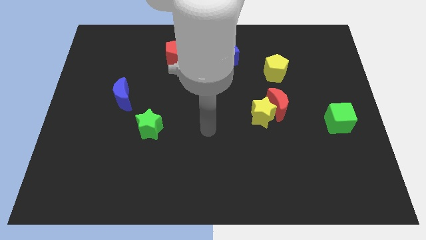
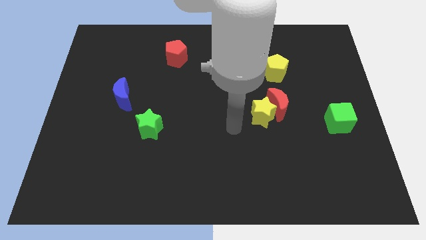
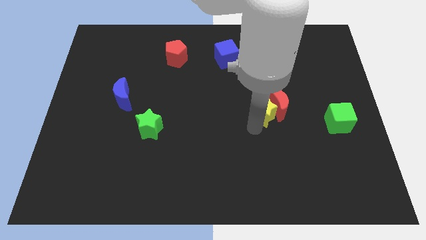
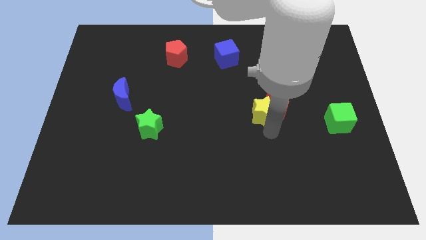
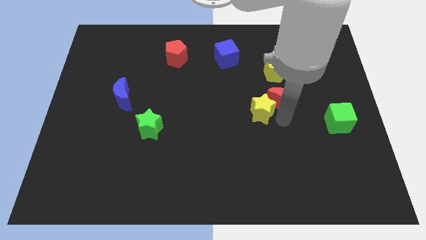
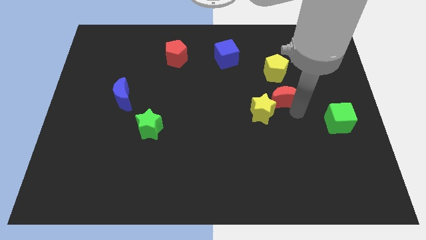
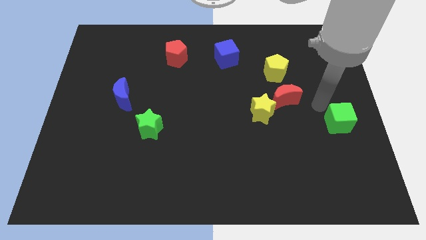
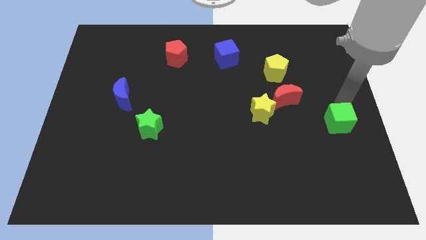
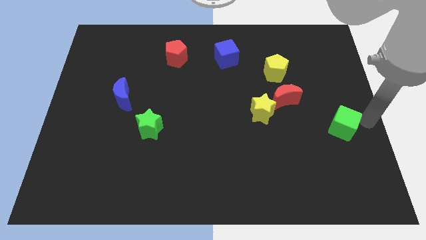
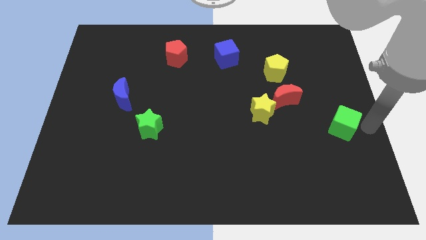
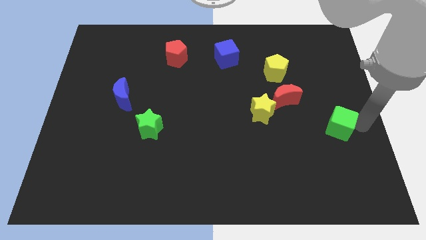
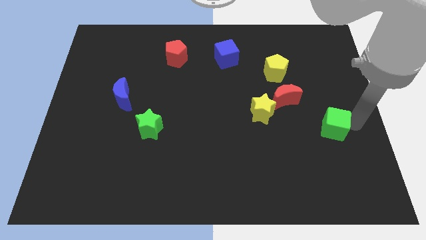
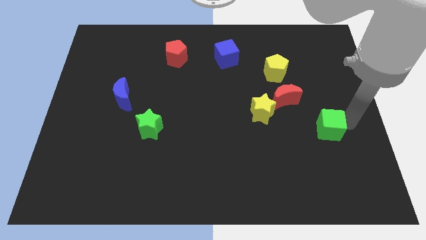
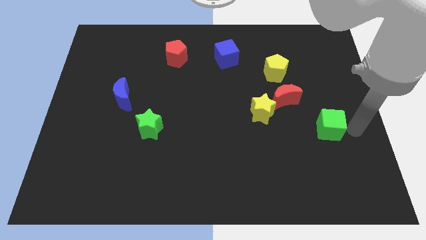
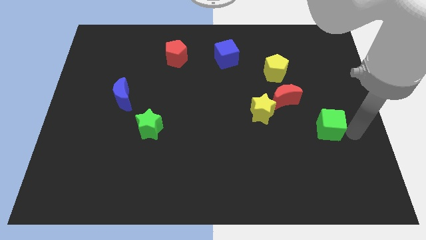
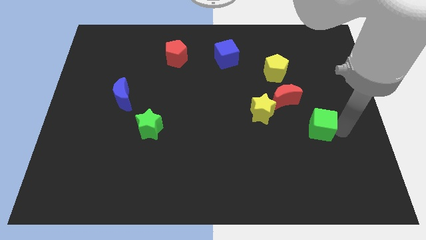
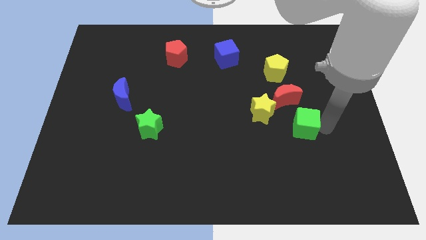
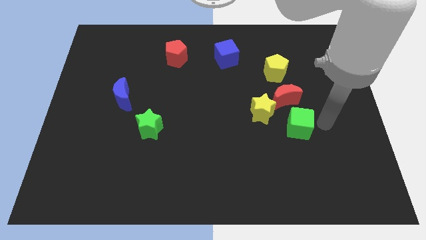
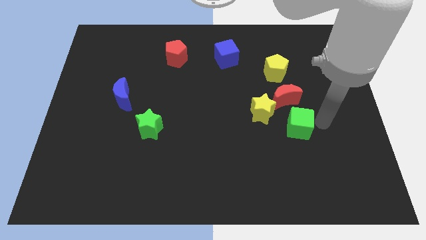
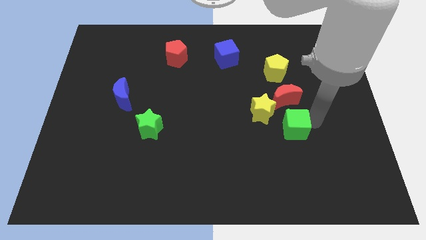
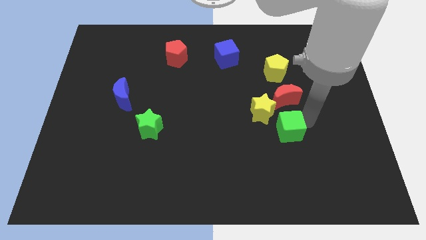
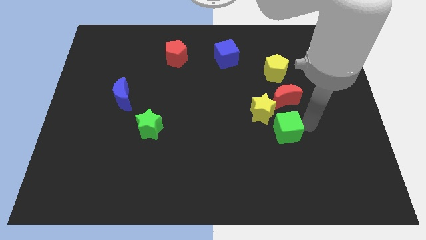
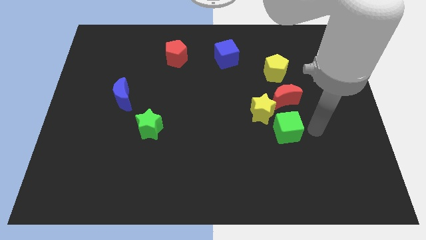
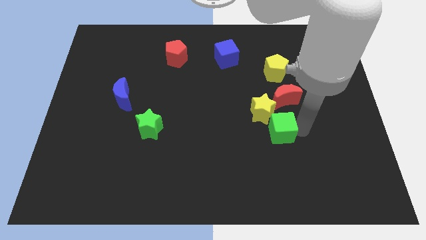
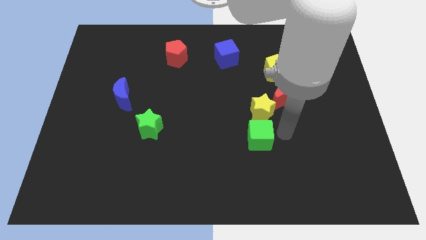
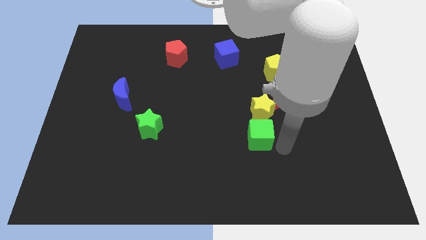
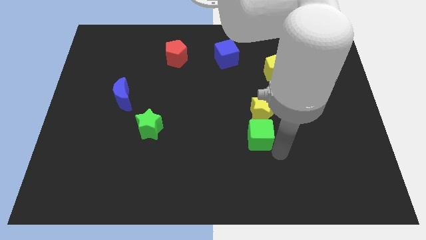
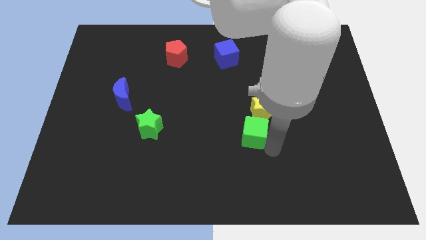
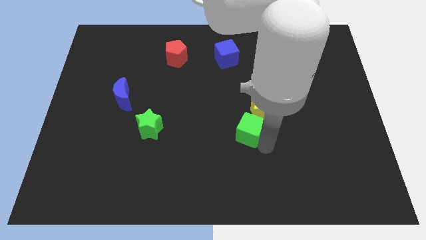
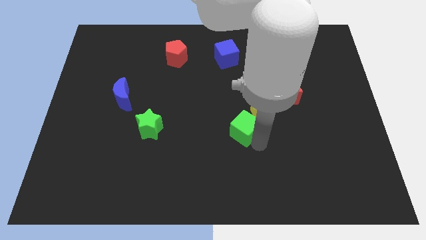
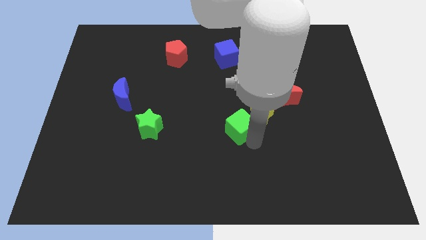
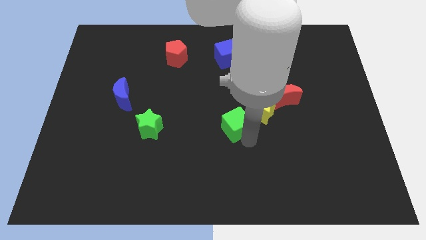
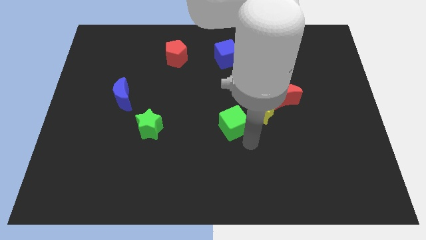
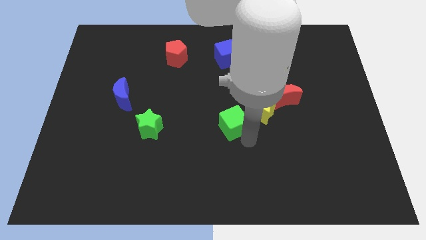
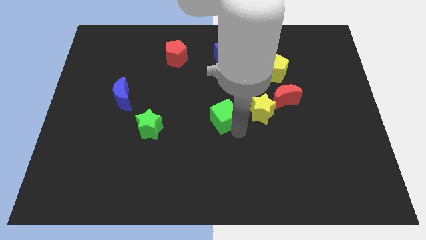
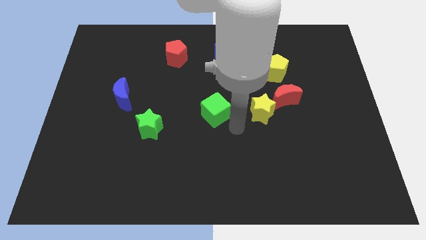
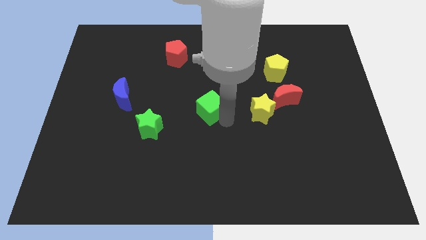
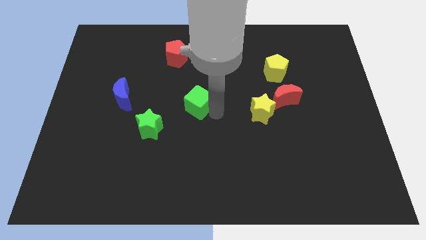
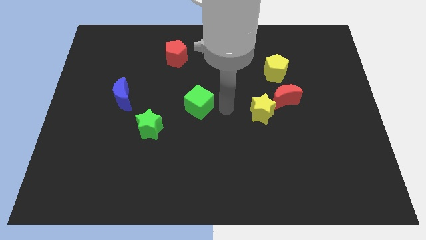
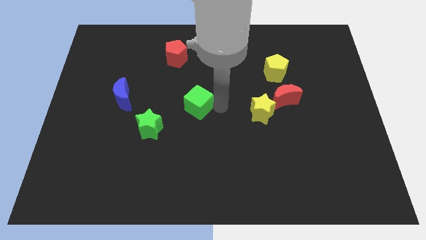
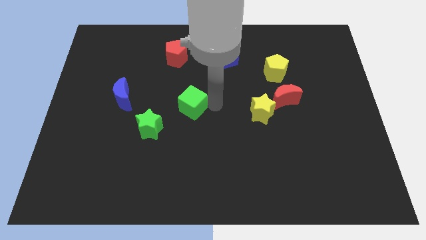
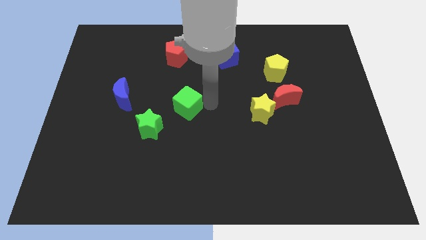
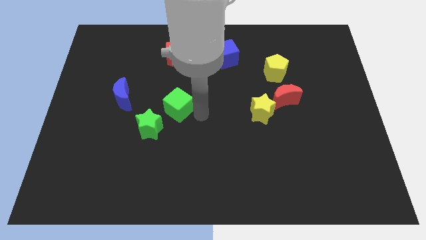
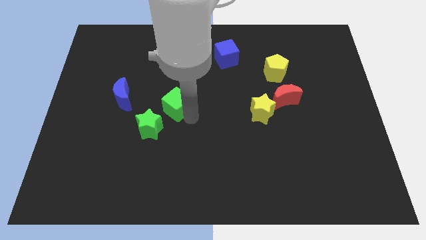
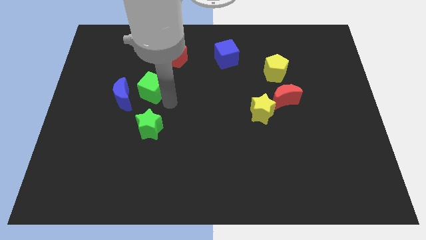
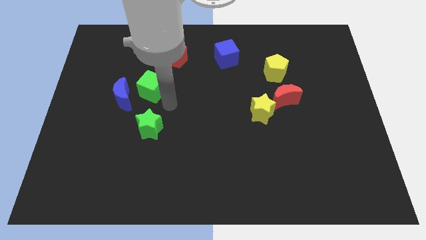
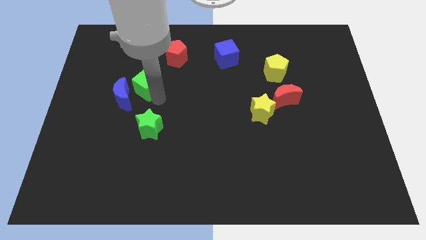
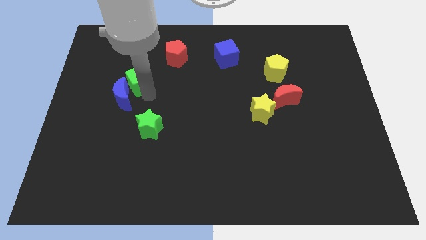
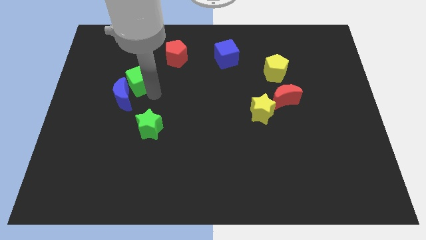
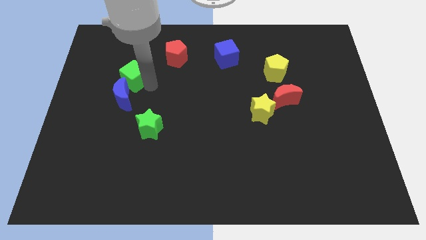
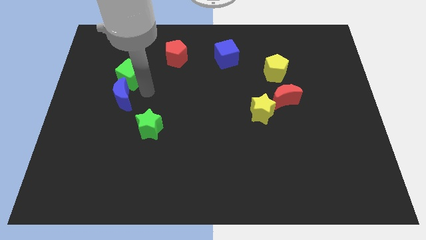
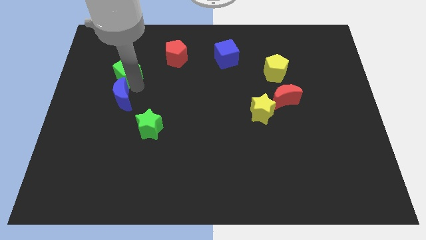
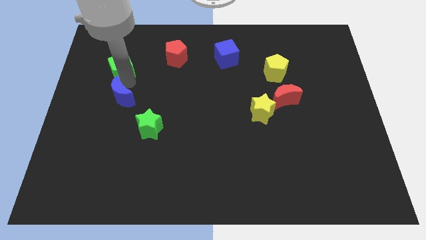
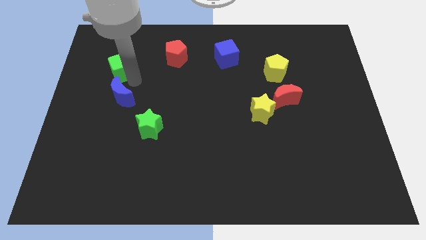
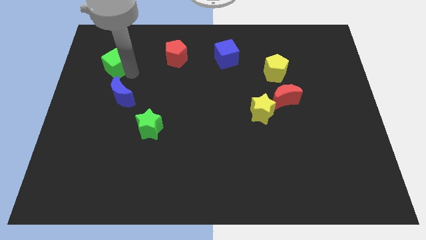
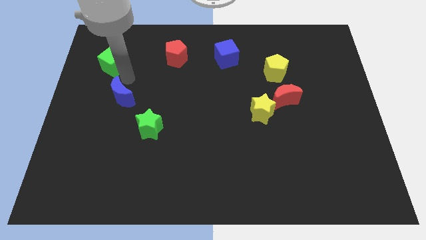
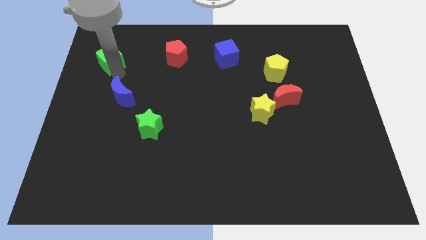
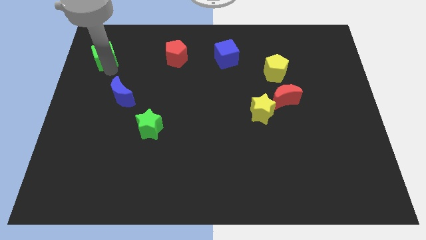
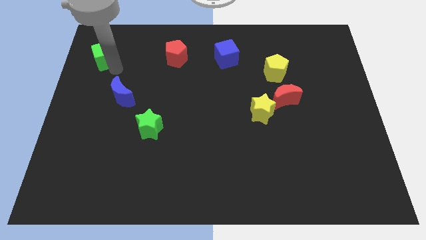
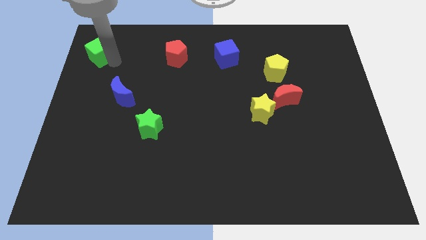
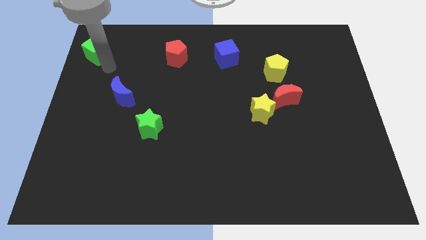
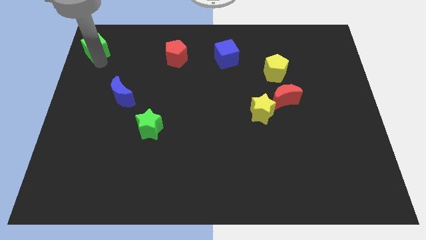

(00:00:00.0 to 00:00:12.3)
slide the green cube to the top left of the board
